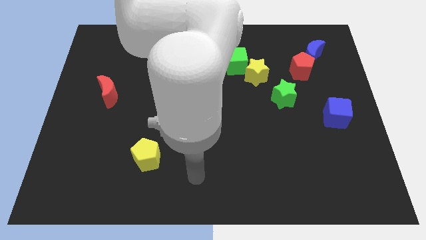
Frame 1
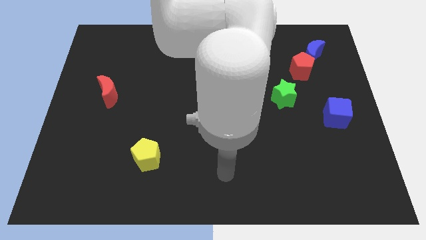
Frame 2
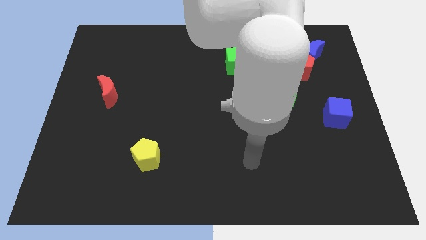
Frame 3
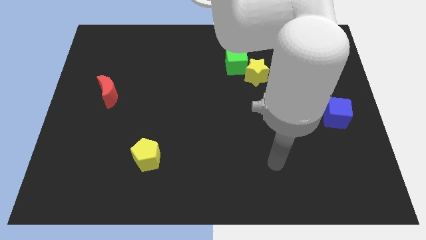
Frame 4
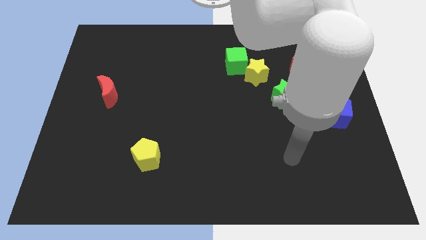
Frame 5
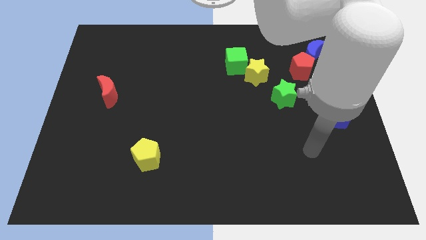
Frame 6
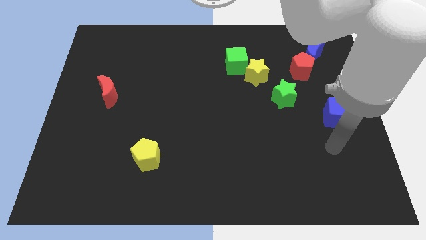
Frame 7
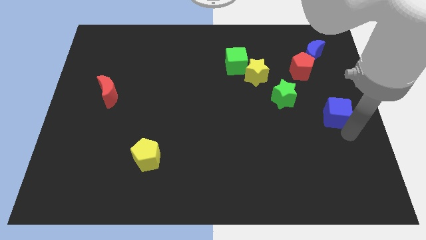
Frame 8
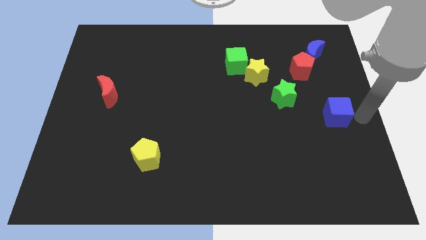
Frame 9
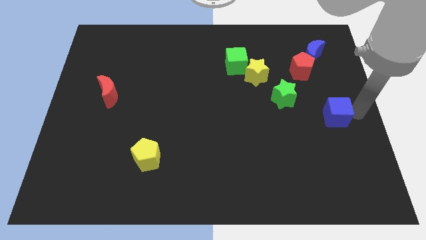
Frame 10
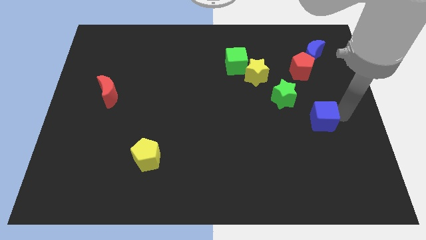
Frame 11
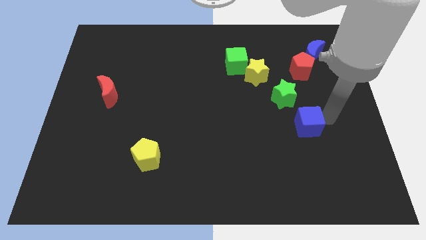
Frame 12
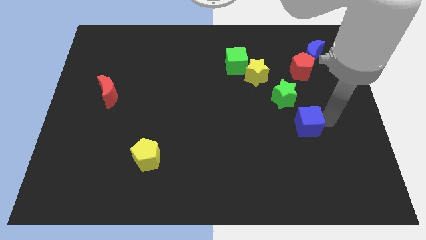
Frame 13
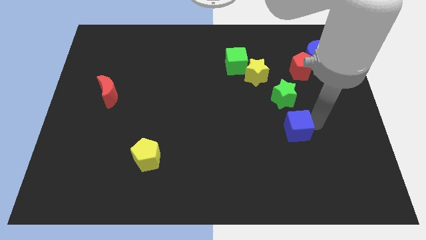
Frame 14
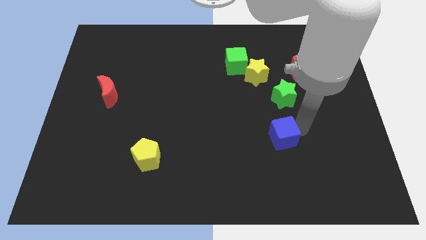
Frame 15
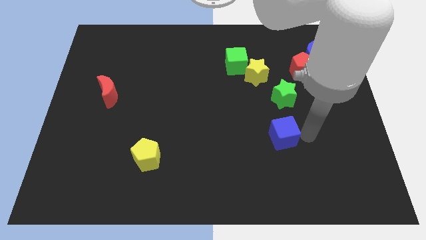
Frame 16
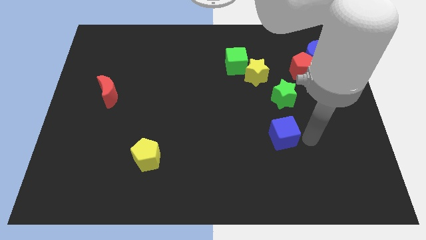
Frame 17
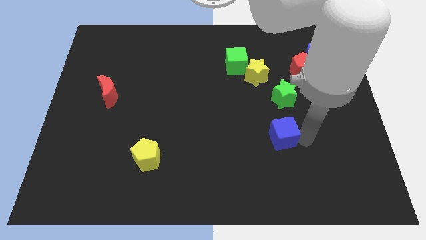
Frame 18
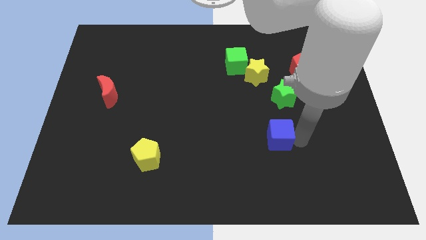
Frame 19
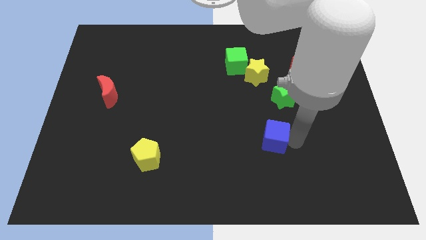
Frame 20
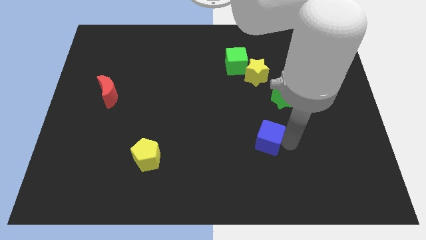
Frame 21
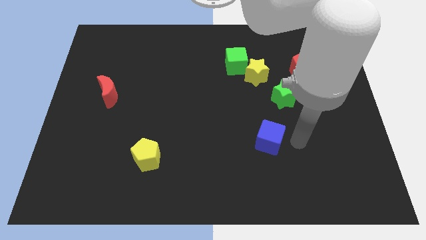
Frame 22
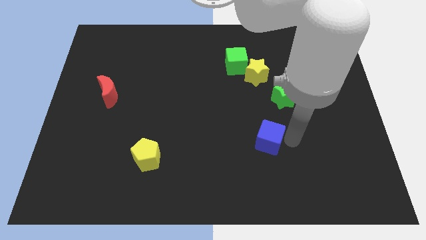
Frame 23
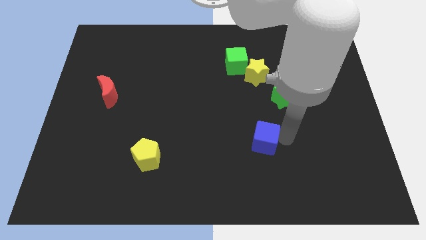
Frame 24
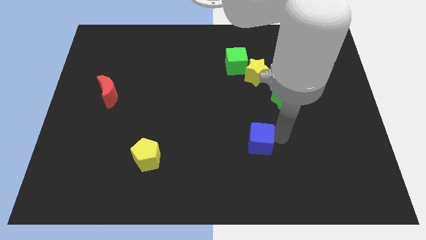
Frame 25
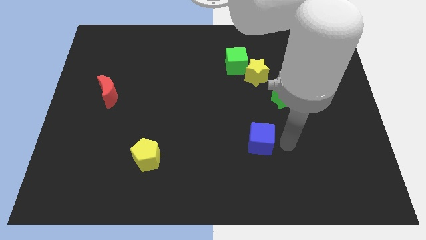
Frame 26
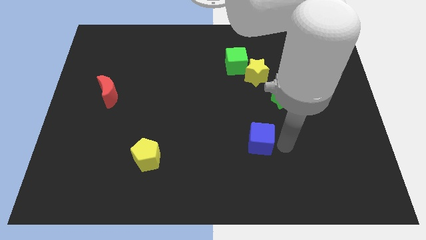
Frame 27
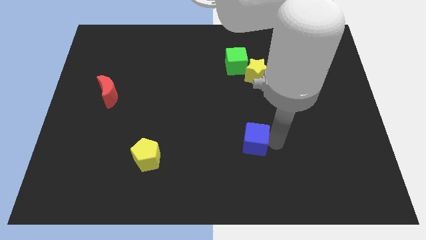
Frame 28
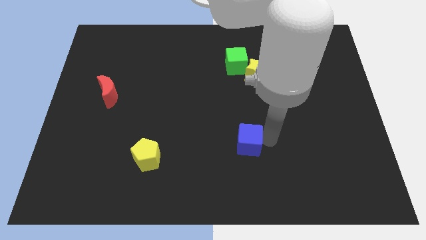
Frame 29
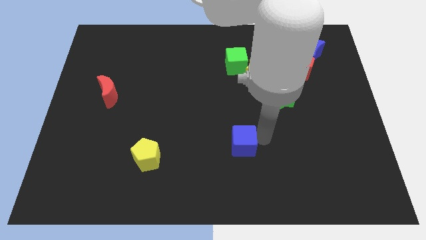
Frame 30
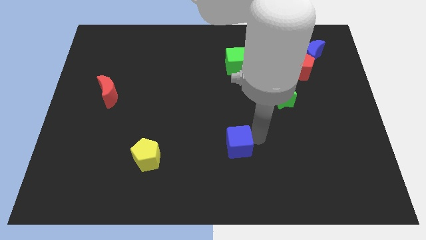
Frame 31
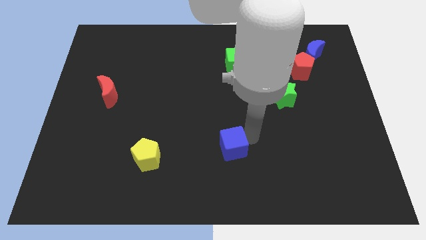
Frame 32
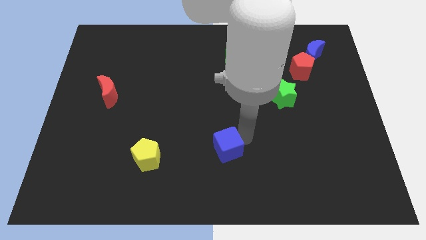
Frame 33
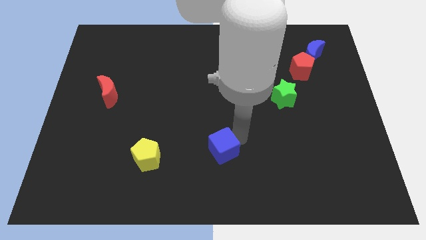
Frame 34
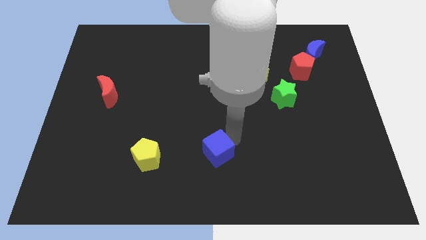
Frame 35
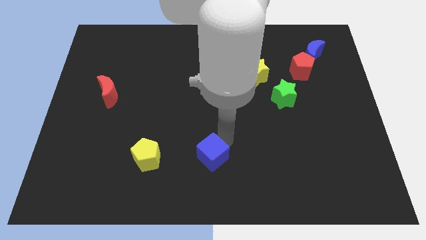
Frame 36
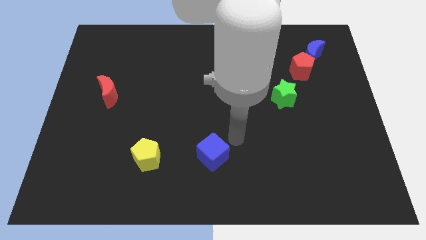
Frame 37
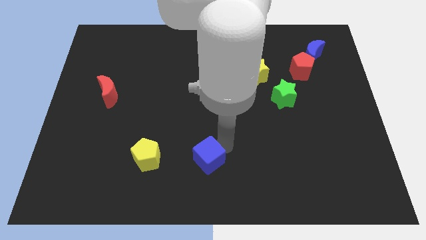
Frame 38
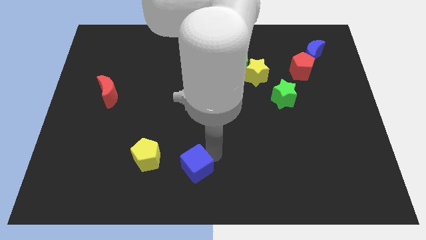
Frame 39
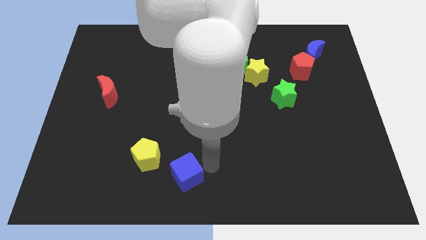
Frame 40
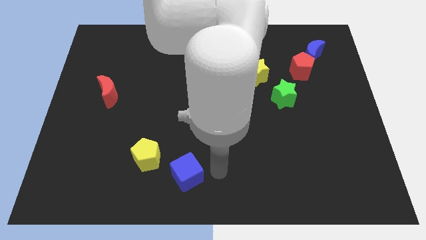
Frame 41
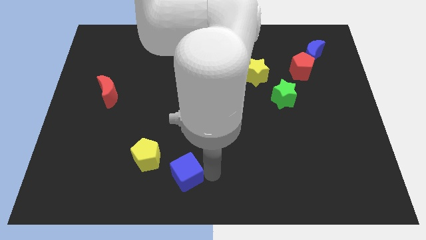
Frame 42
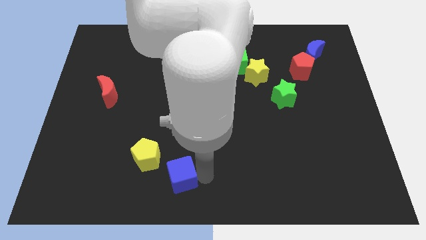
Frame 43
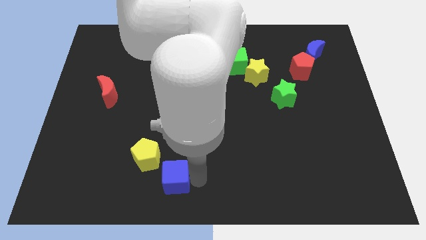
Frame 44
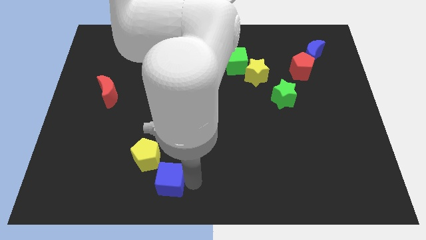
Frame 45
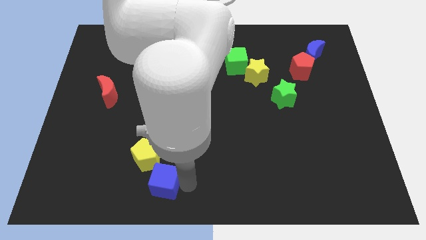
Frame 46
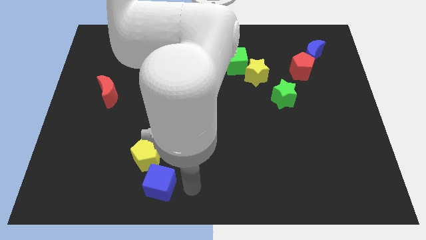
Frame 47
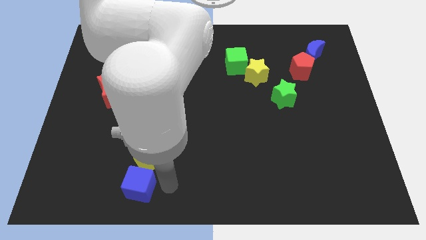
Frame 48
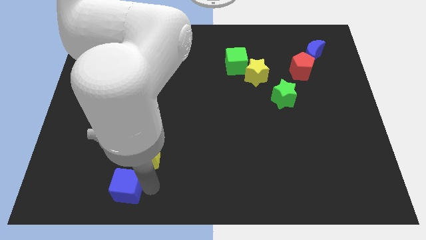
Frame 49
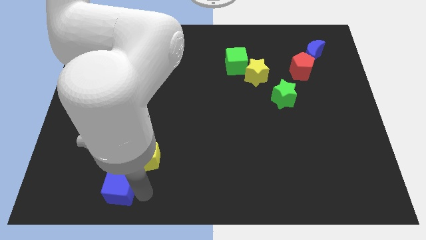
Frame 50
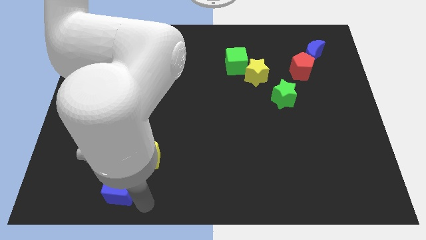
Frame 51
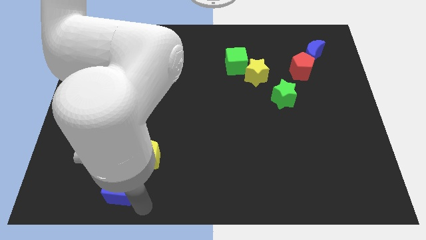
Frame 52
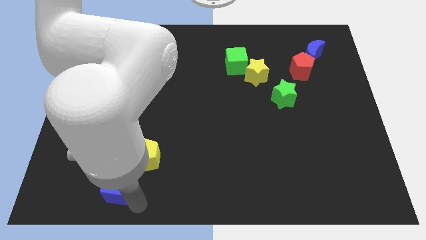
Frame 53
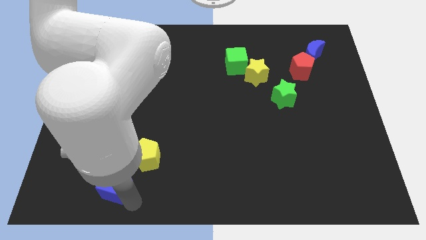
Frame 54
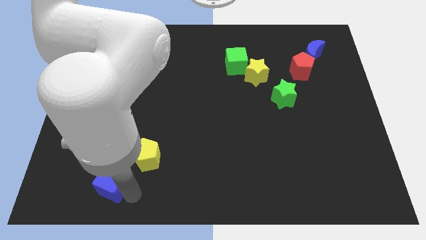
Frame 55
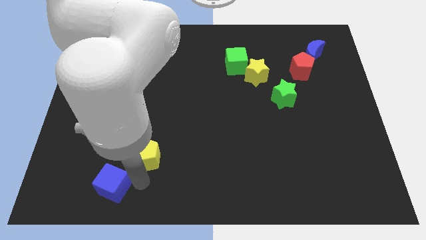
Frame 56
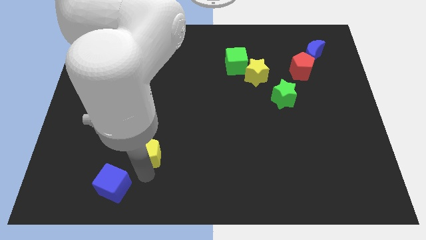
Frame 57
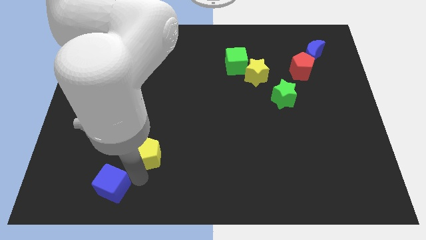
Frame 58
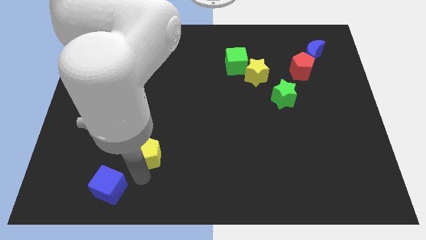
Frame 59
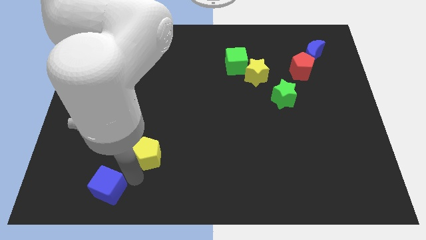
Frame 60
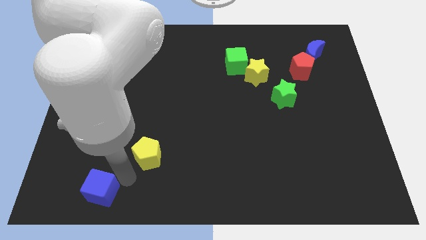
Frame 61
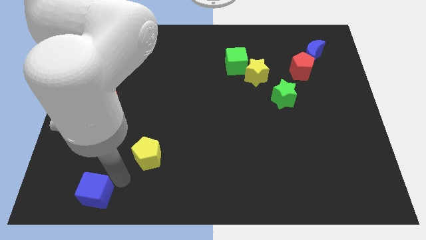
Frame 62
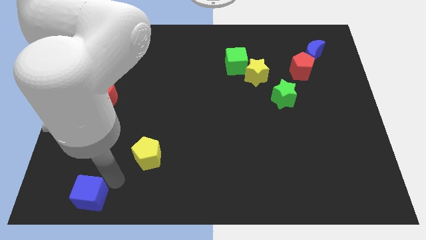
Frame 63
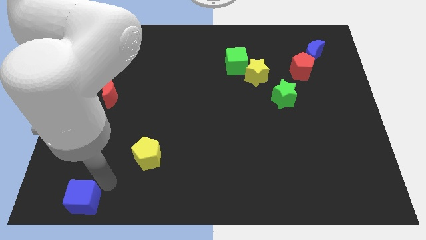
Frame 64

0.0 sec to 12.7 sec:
slide the blue cube to the bottom left of the board
